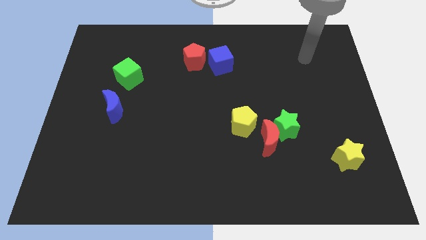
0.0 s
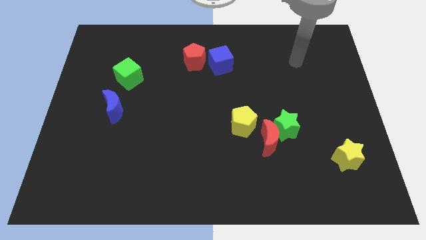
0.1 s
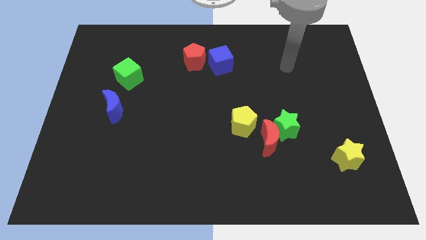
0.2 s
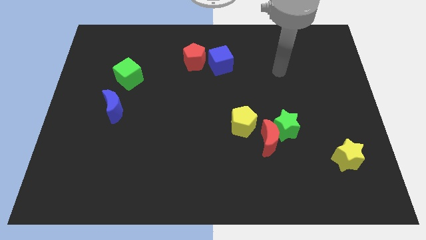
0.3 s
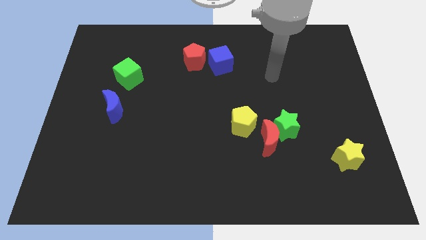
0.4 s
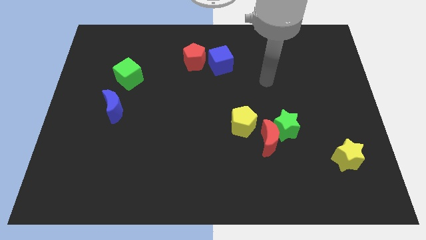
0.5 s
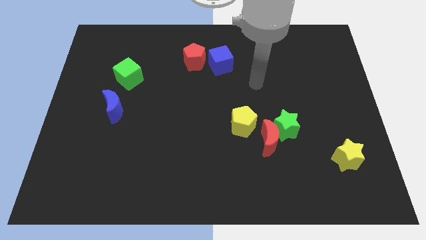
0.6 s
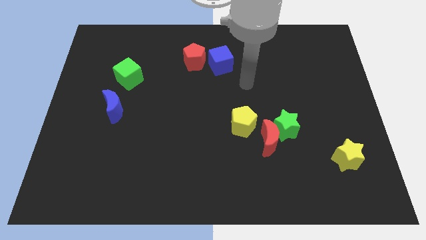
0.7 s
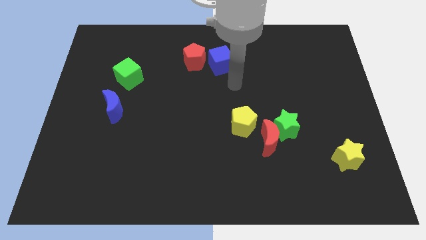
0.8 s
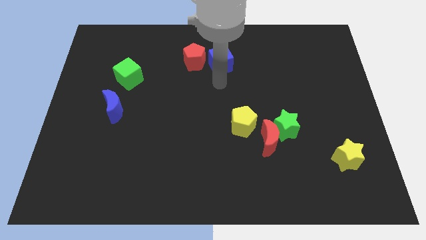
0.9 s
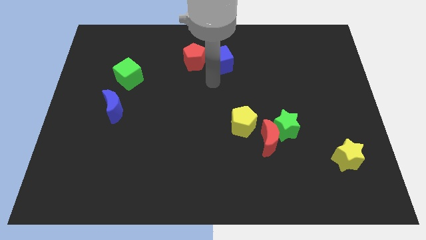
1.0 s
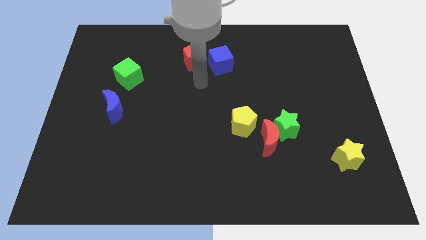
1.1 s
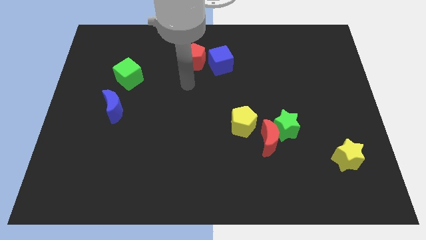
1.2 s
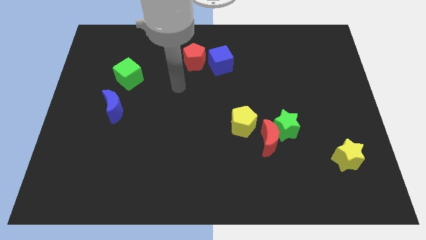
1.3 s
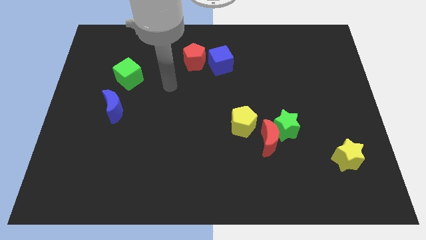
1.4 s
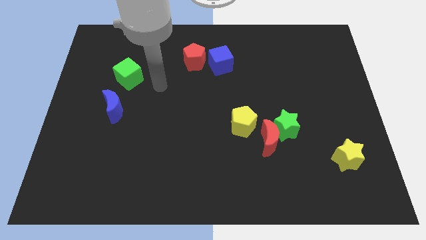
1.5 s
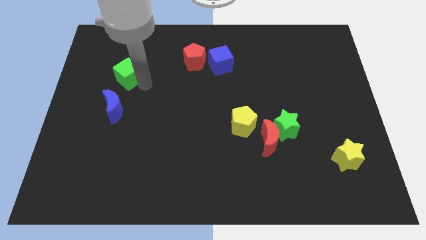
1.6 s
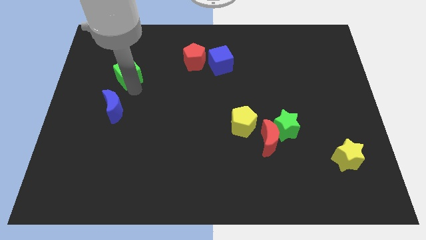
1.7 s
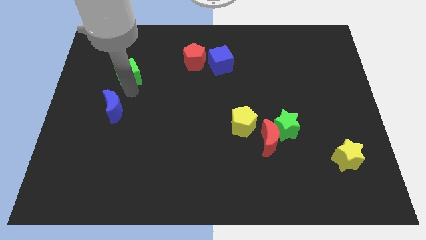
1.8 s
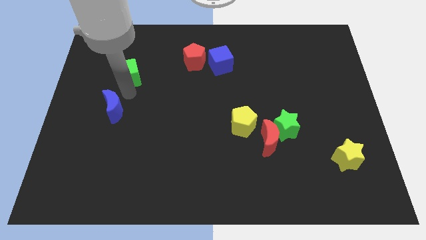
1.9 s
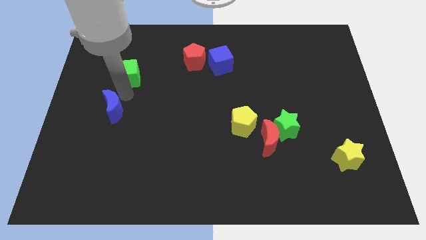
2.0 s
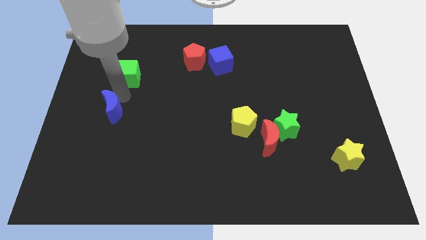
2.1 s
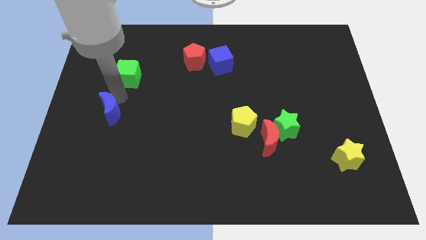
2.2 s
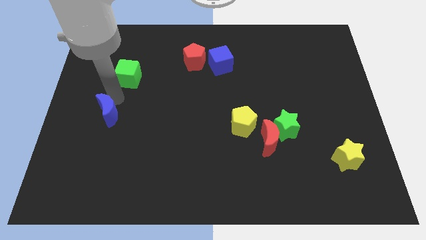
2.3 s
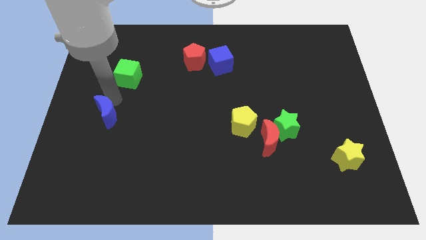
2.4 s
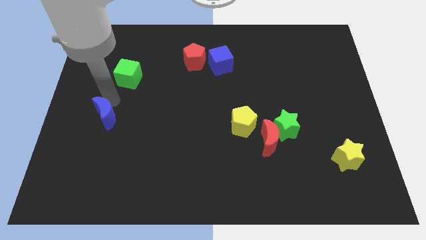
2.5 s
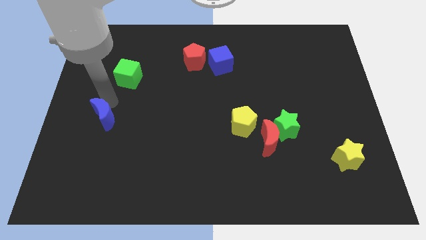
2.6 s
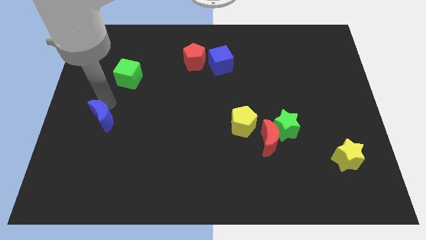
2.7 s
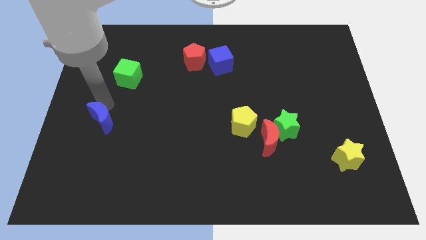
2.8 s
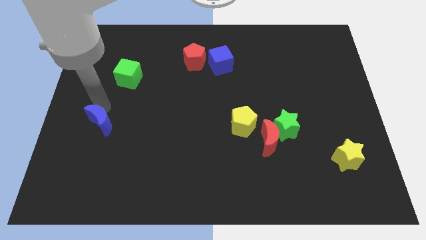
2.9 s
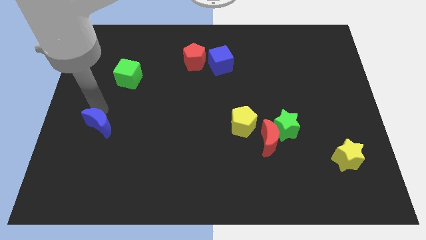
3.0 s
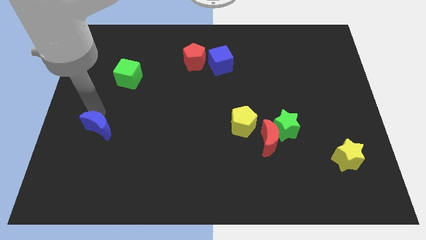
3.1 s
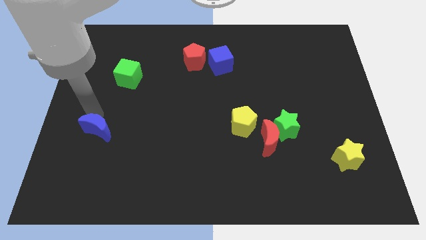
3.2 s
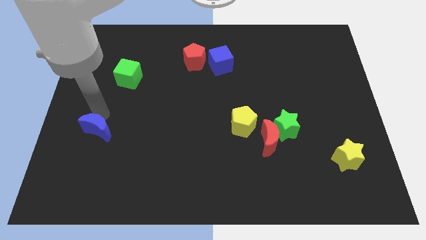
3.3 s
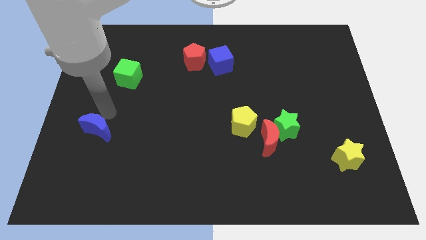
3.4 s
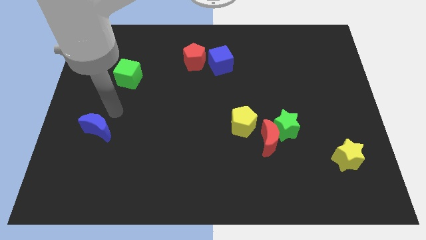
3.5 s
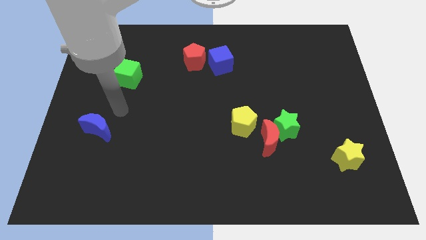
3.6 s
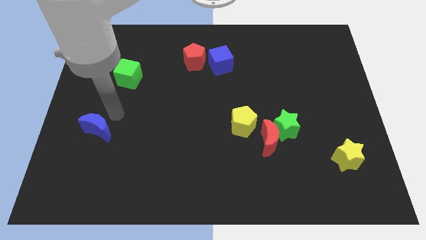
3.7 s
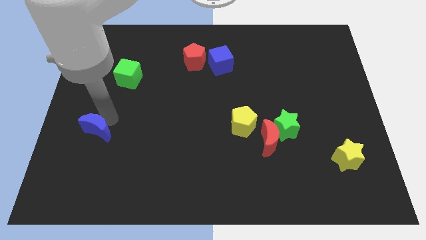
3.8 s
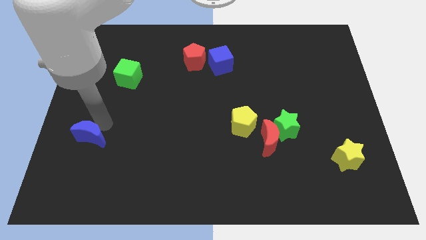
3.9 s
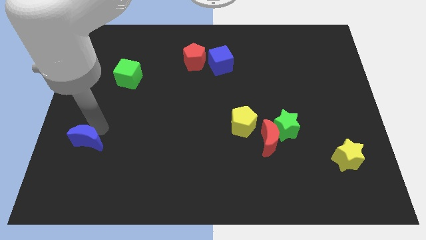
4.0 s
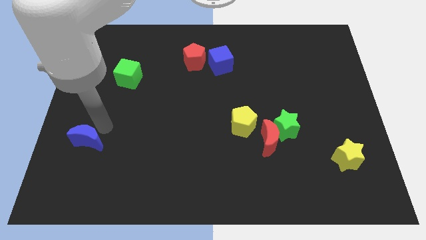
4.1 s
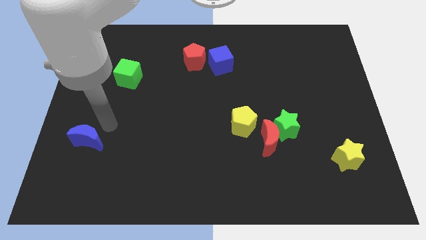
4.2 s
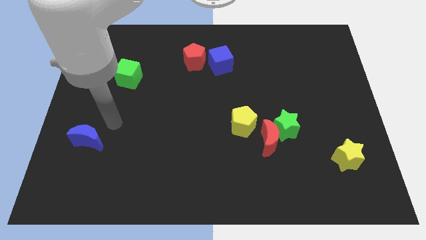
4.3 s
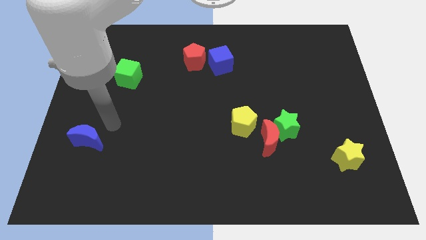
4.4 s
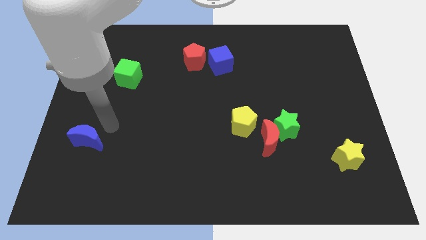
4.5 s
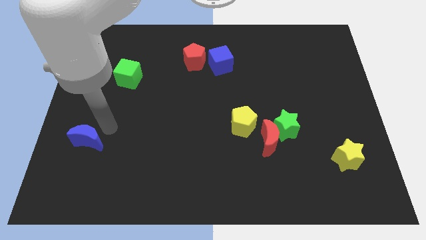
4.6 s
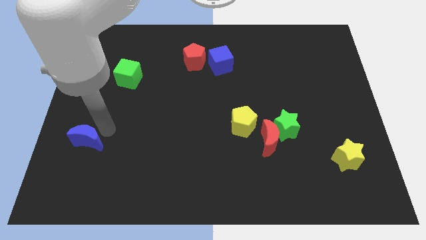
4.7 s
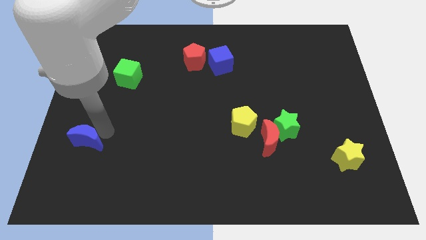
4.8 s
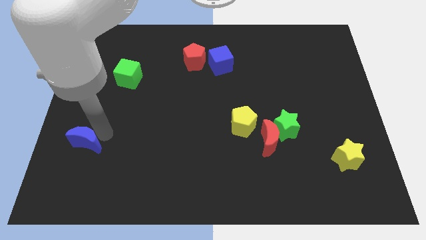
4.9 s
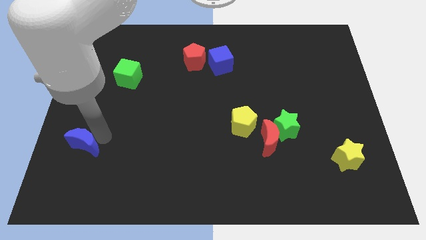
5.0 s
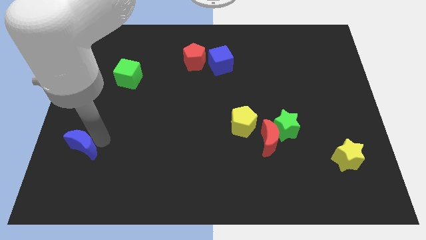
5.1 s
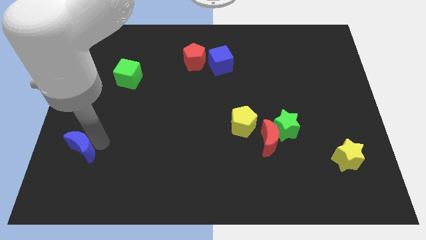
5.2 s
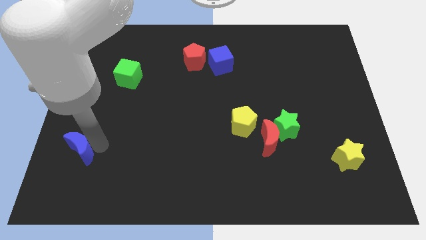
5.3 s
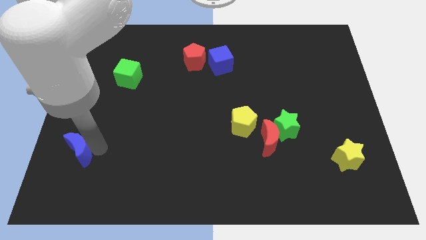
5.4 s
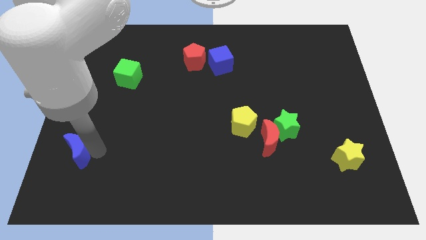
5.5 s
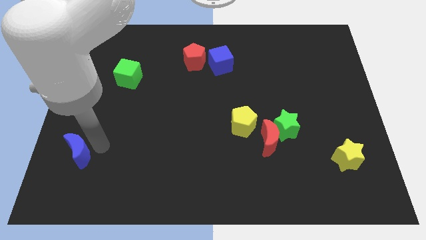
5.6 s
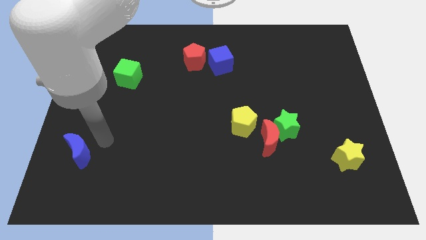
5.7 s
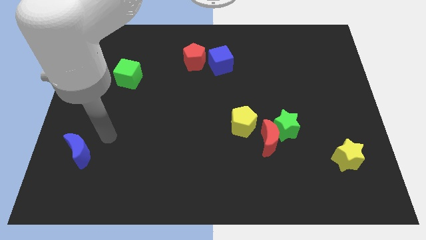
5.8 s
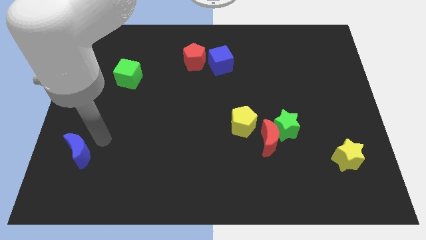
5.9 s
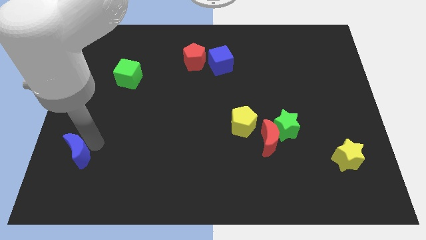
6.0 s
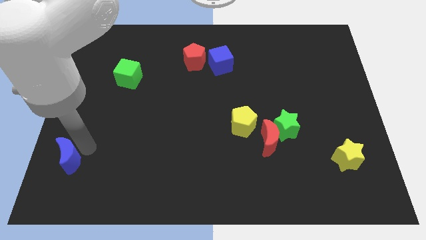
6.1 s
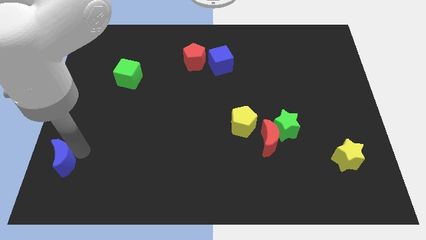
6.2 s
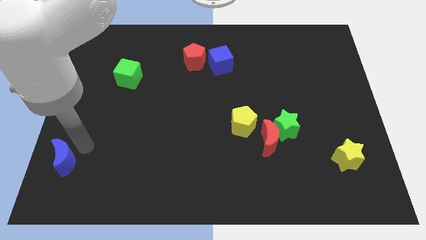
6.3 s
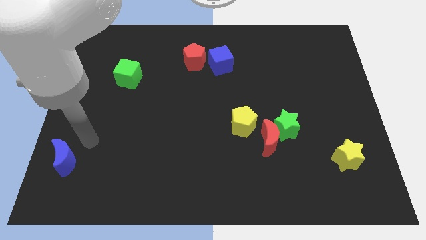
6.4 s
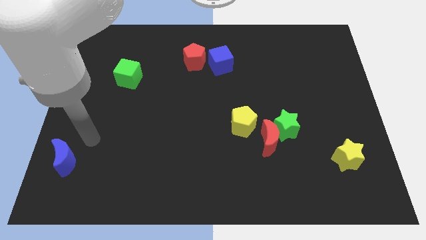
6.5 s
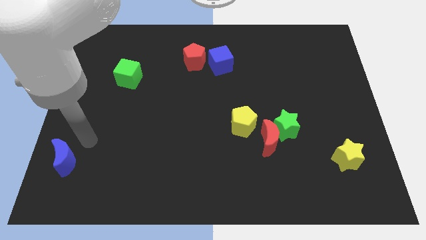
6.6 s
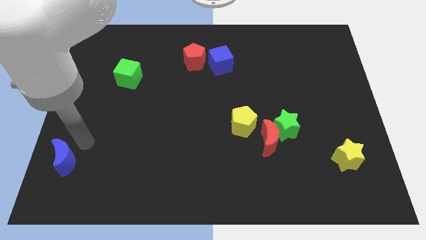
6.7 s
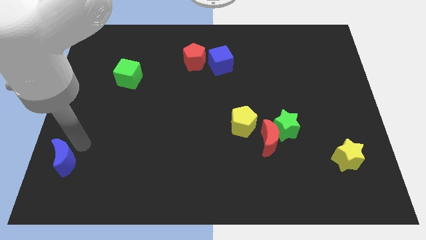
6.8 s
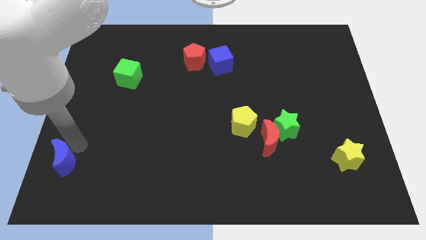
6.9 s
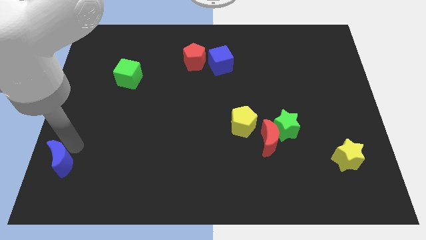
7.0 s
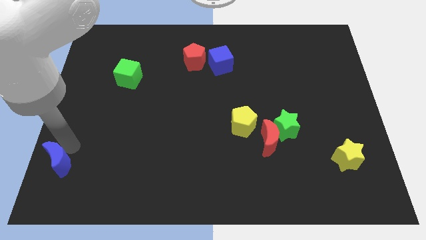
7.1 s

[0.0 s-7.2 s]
slide the blue moon to the bottom left
